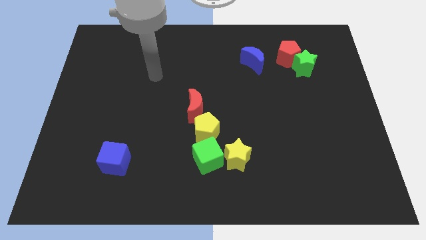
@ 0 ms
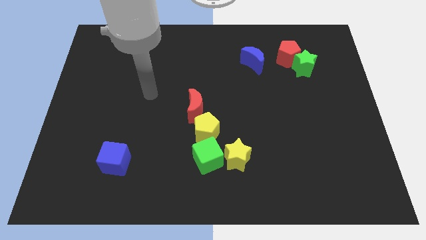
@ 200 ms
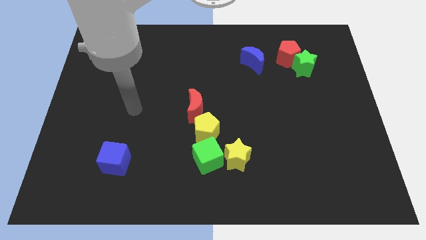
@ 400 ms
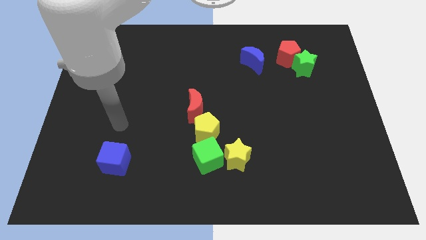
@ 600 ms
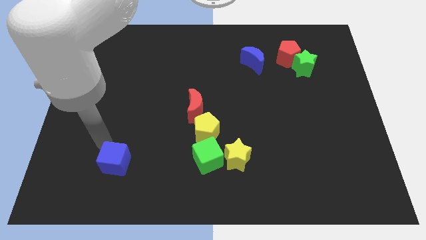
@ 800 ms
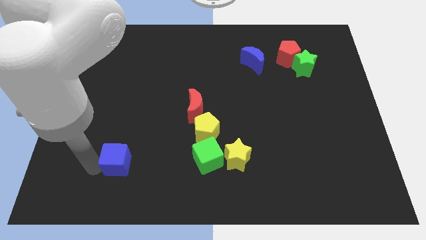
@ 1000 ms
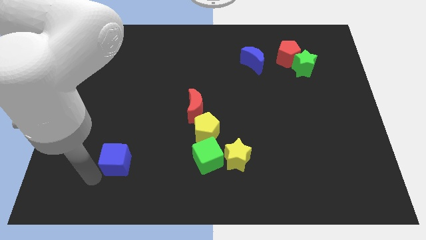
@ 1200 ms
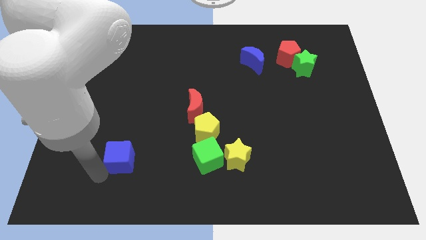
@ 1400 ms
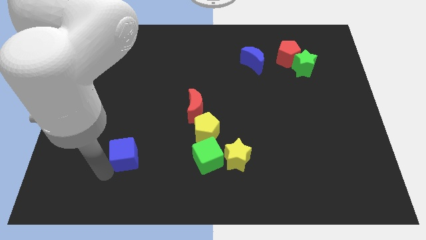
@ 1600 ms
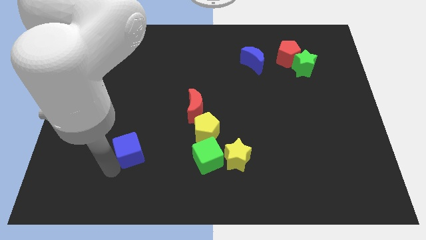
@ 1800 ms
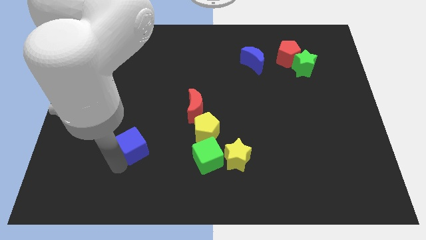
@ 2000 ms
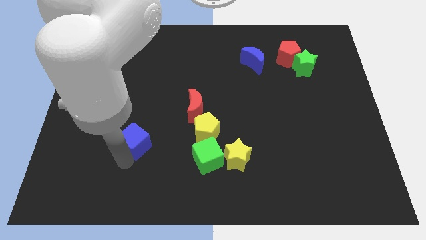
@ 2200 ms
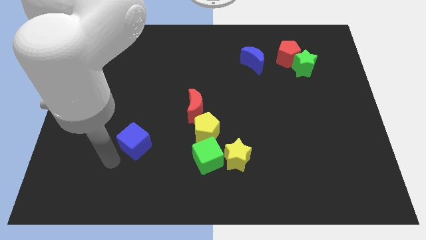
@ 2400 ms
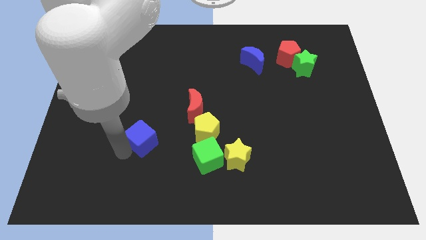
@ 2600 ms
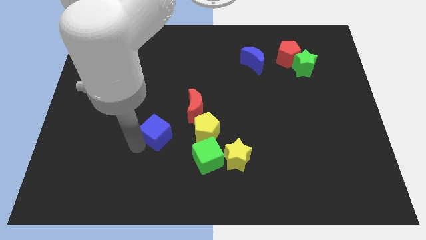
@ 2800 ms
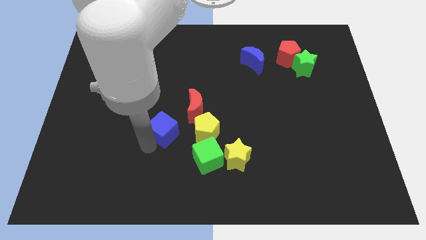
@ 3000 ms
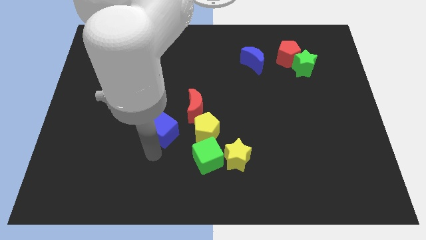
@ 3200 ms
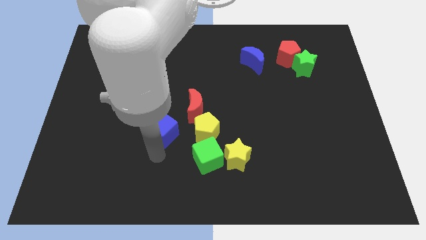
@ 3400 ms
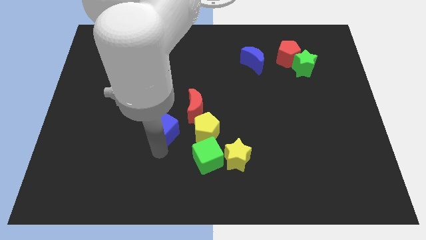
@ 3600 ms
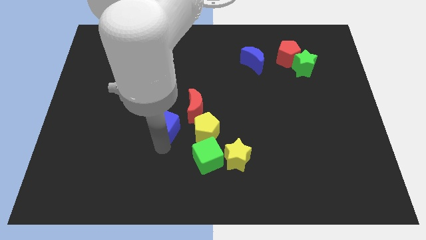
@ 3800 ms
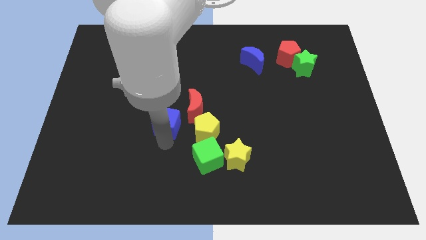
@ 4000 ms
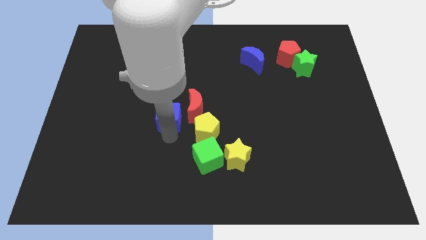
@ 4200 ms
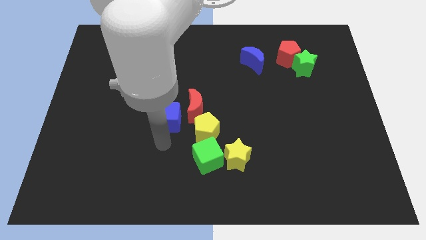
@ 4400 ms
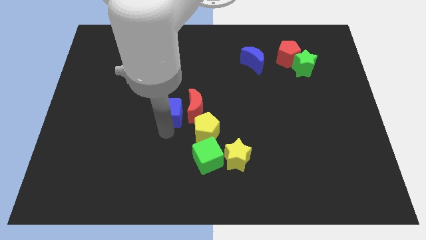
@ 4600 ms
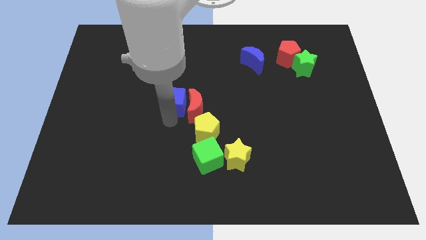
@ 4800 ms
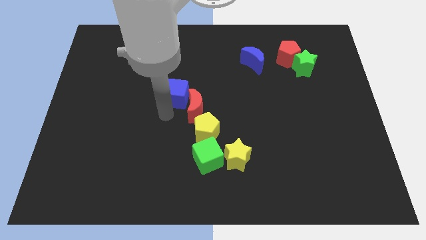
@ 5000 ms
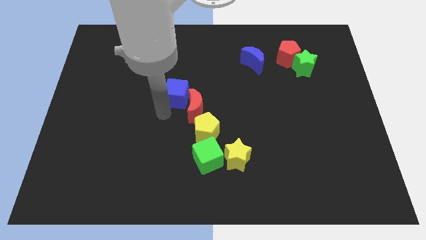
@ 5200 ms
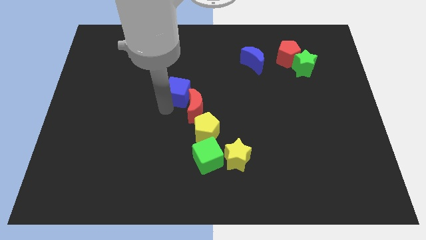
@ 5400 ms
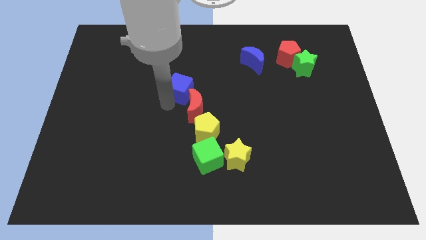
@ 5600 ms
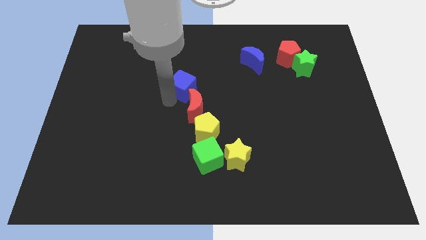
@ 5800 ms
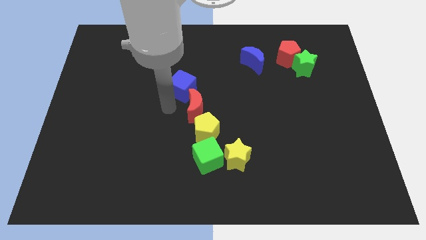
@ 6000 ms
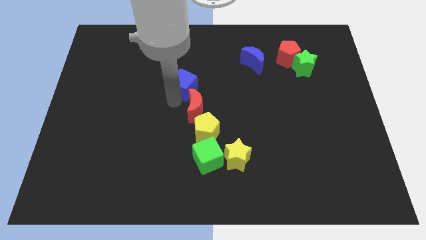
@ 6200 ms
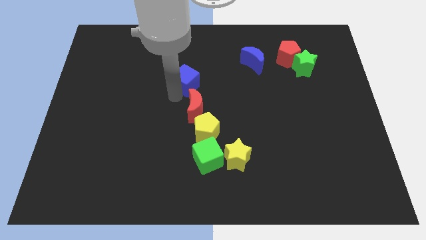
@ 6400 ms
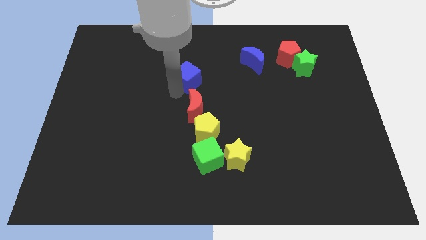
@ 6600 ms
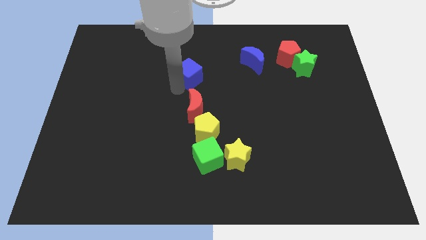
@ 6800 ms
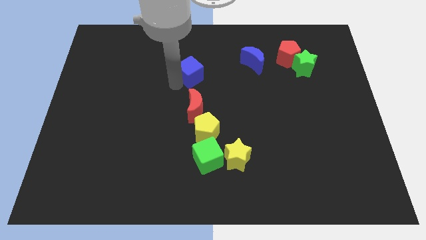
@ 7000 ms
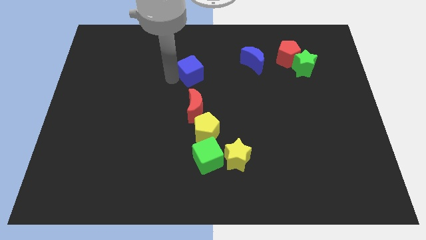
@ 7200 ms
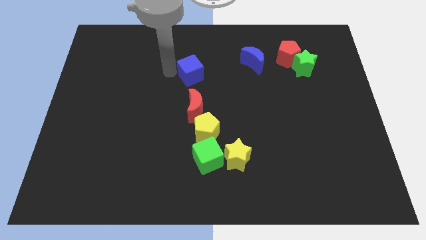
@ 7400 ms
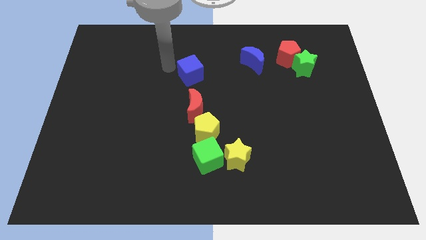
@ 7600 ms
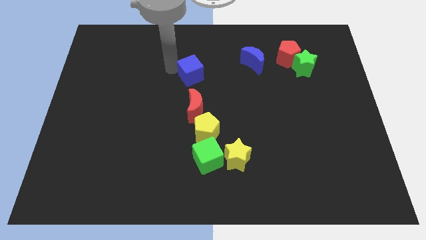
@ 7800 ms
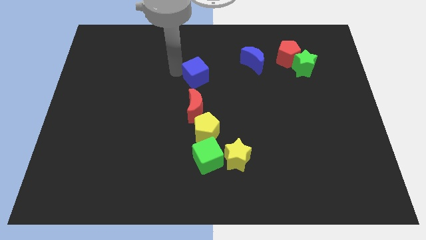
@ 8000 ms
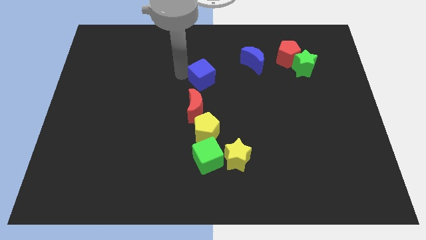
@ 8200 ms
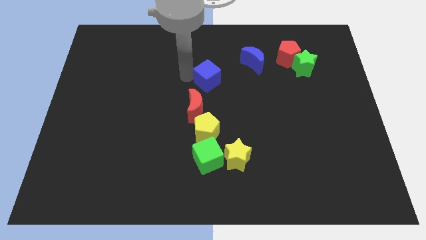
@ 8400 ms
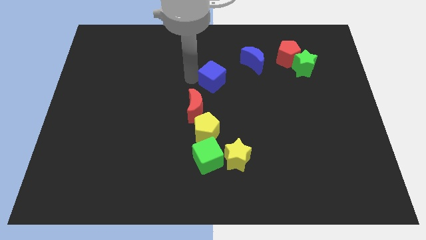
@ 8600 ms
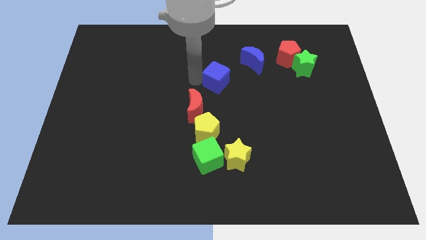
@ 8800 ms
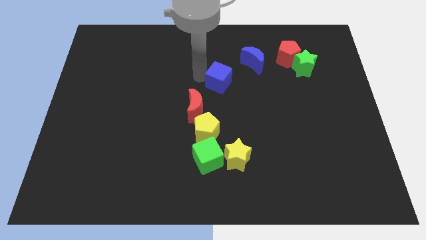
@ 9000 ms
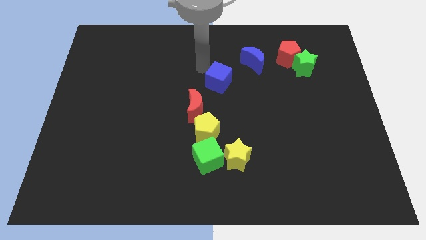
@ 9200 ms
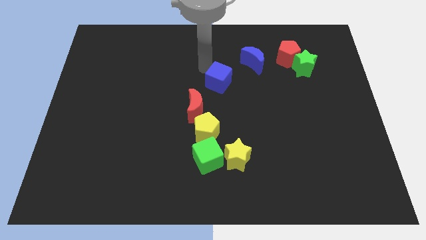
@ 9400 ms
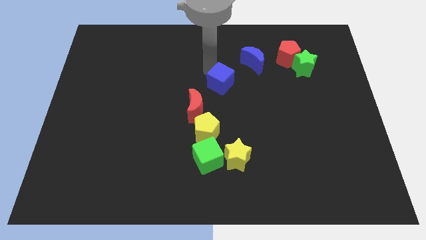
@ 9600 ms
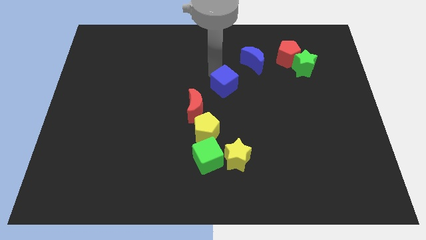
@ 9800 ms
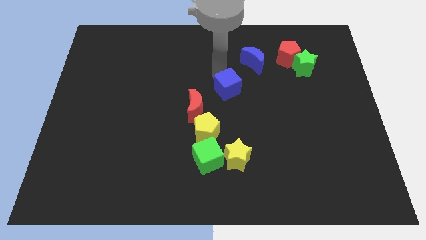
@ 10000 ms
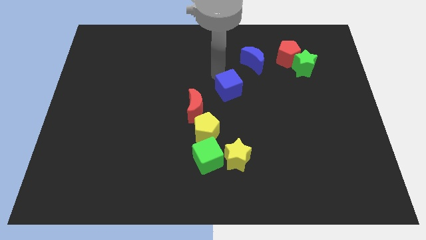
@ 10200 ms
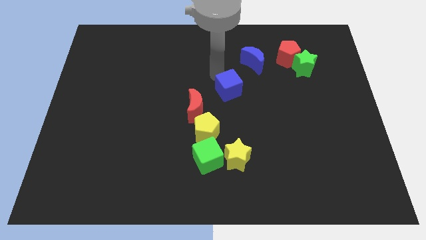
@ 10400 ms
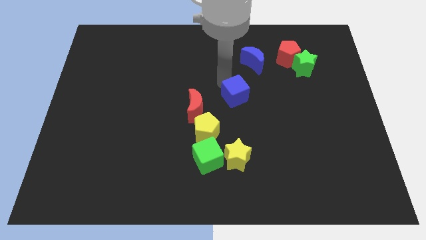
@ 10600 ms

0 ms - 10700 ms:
move the blue cube right of the red moon
